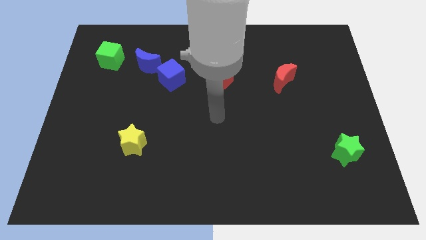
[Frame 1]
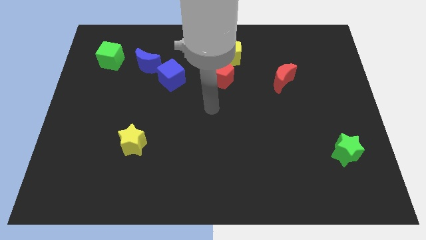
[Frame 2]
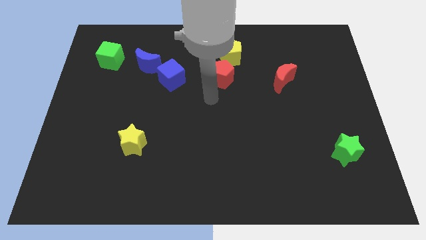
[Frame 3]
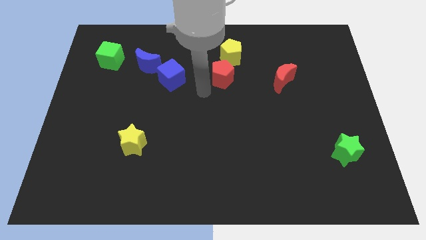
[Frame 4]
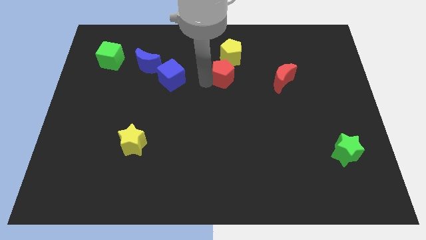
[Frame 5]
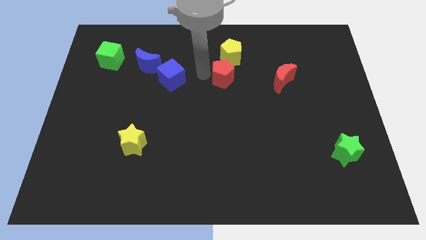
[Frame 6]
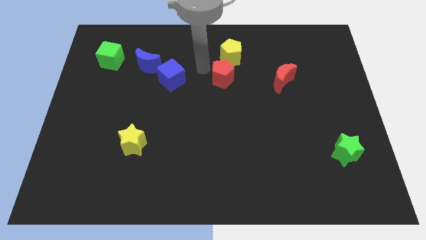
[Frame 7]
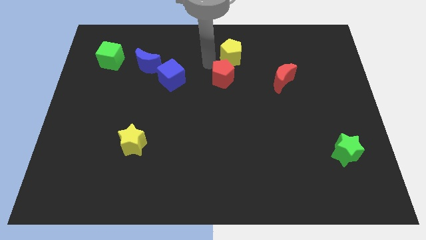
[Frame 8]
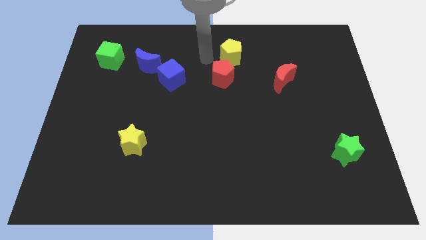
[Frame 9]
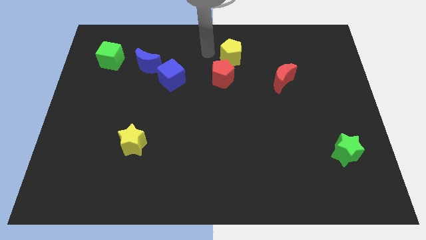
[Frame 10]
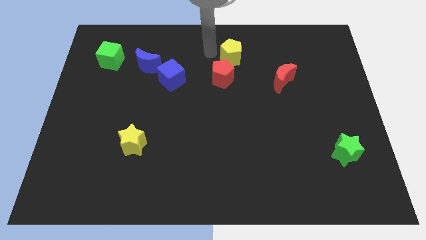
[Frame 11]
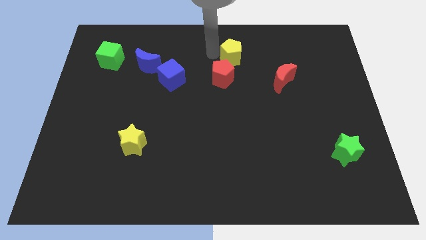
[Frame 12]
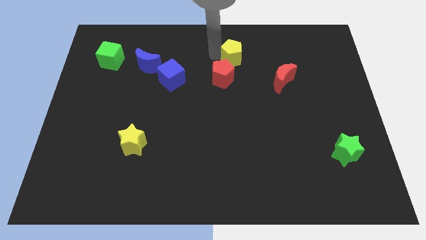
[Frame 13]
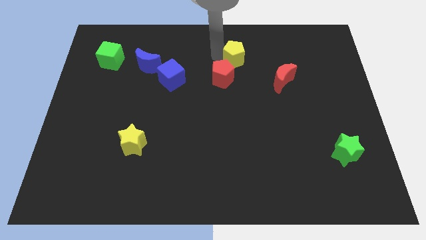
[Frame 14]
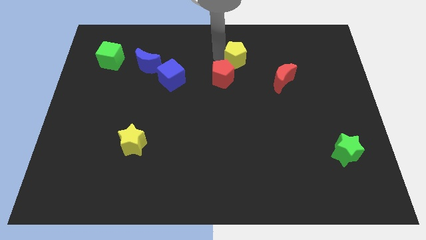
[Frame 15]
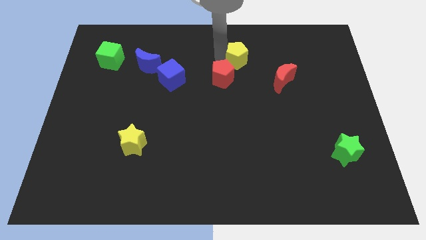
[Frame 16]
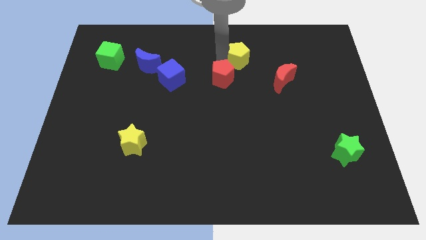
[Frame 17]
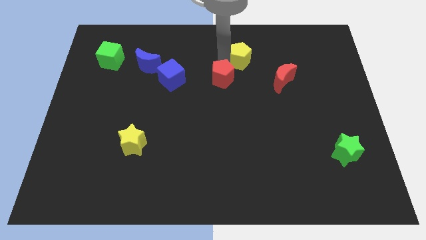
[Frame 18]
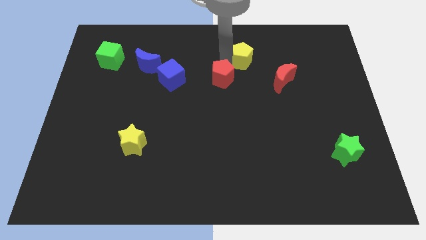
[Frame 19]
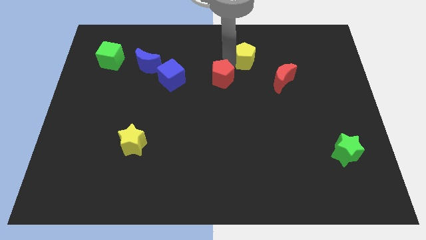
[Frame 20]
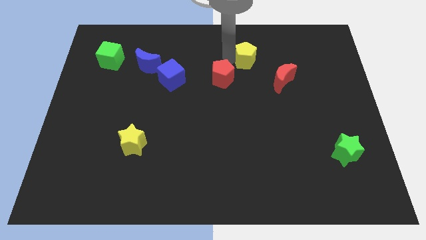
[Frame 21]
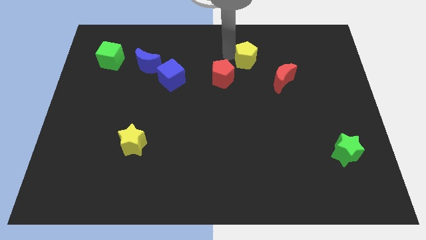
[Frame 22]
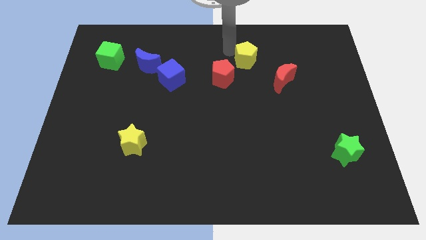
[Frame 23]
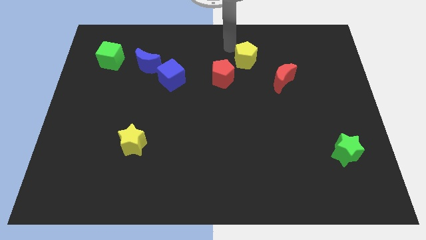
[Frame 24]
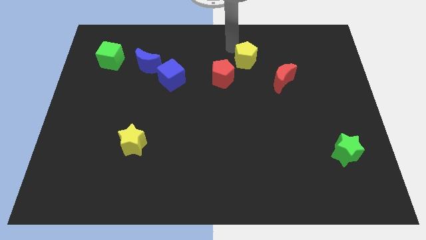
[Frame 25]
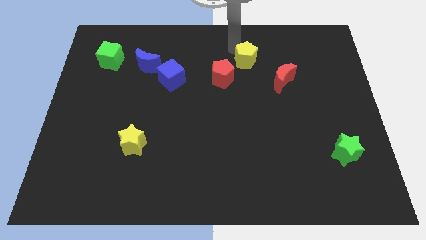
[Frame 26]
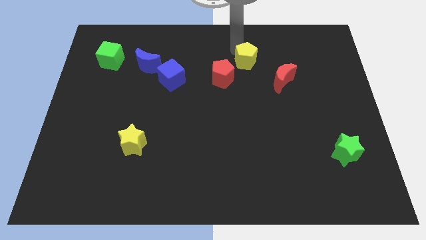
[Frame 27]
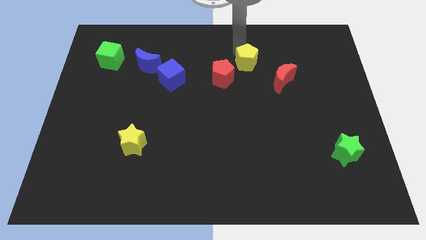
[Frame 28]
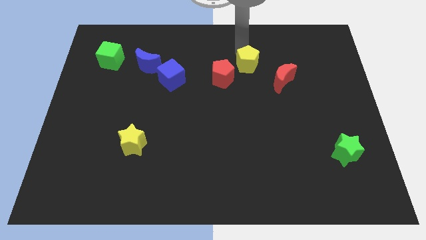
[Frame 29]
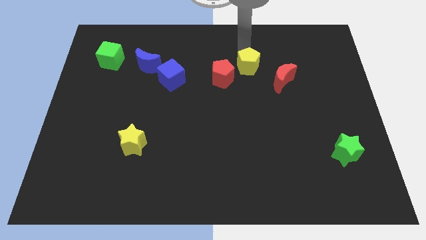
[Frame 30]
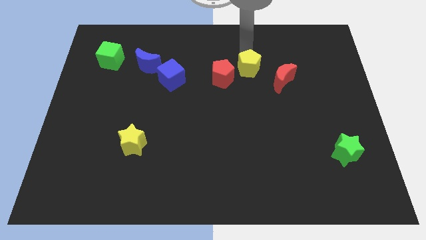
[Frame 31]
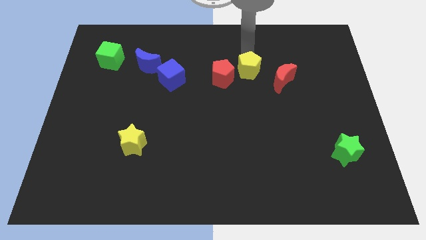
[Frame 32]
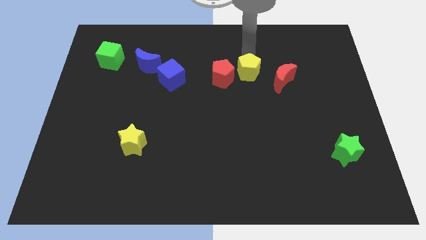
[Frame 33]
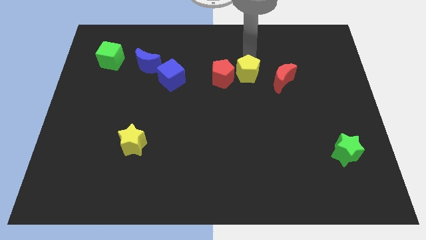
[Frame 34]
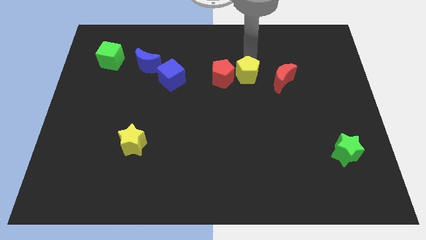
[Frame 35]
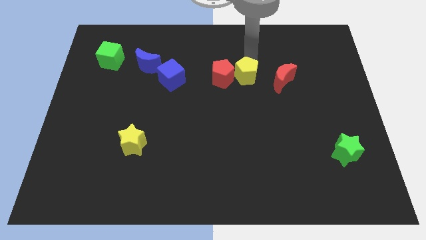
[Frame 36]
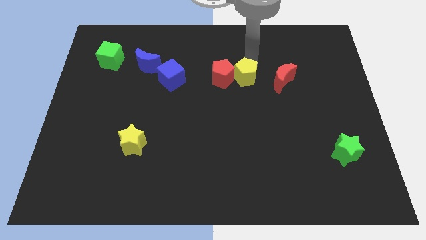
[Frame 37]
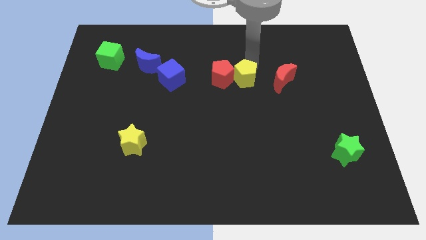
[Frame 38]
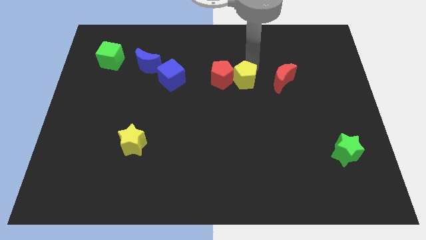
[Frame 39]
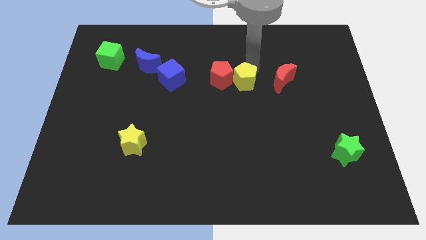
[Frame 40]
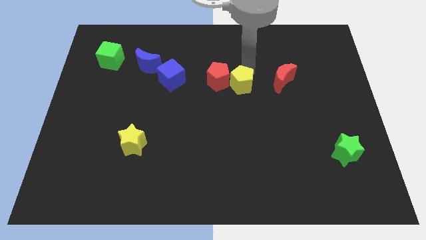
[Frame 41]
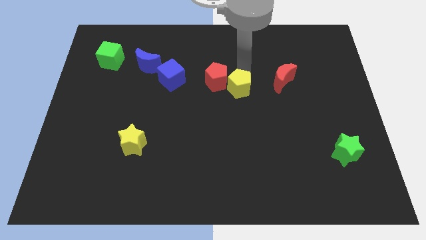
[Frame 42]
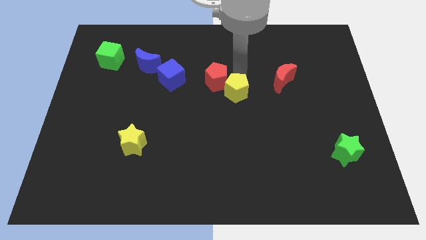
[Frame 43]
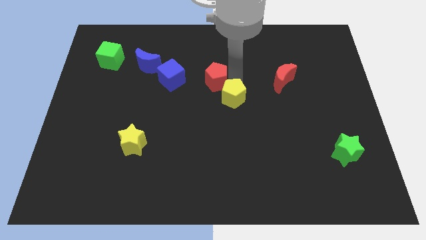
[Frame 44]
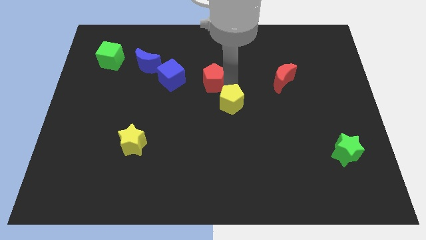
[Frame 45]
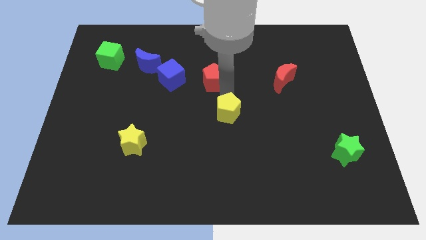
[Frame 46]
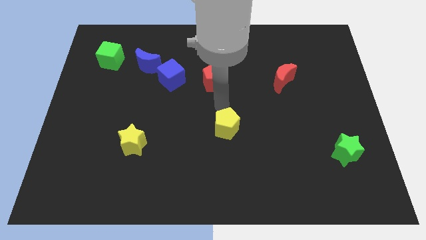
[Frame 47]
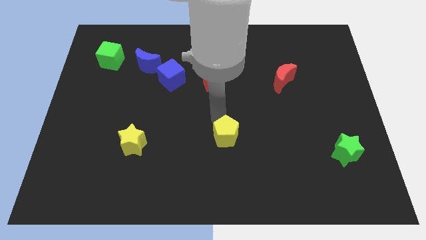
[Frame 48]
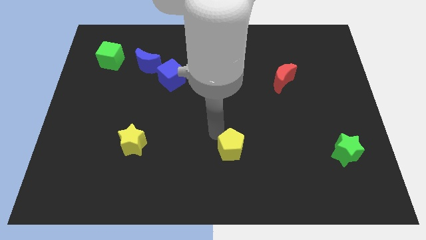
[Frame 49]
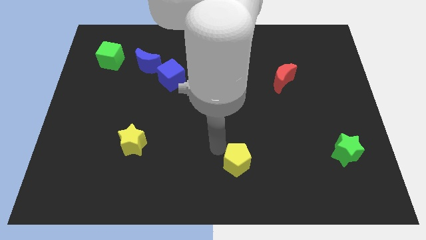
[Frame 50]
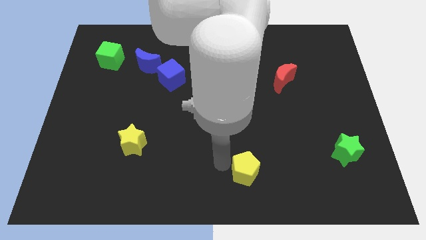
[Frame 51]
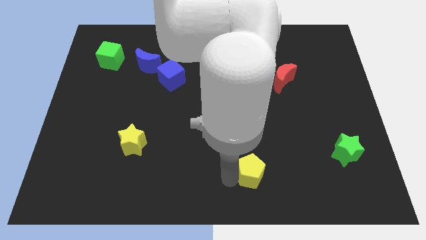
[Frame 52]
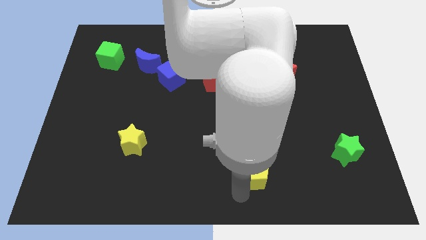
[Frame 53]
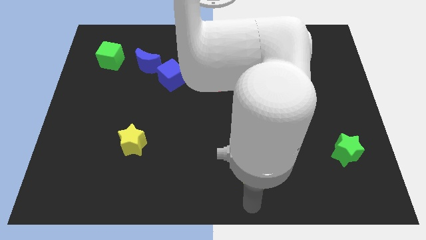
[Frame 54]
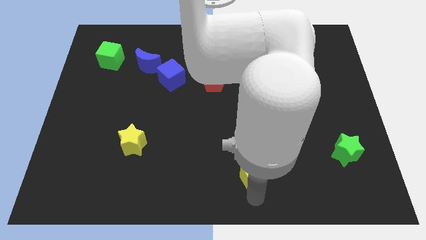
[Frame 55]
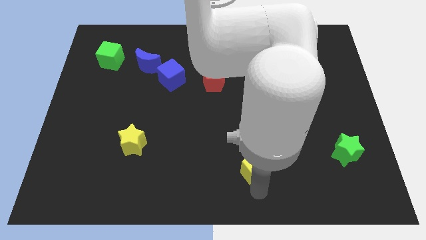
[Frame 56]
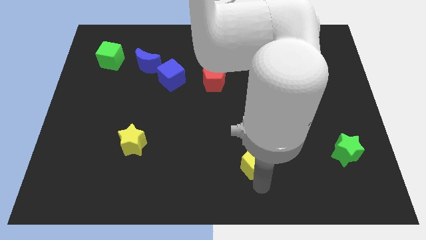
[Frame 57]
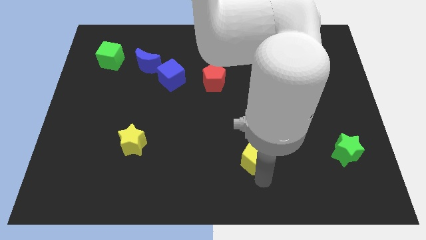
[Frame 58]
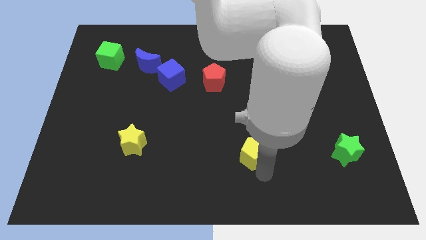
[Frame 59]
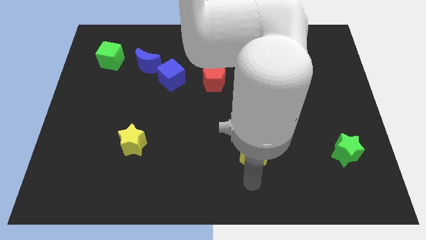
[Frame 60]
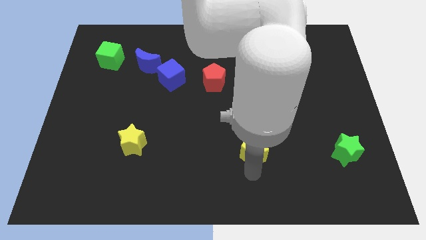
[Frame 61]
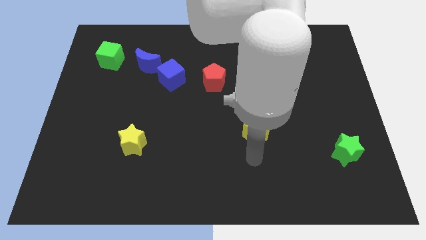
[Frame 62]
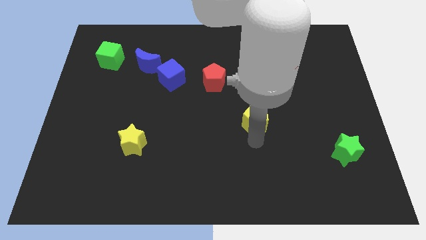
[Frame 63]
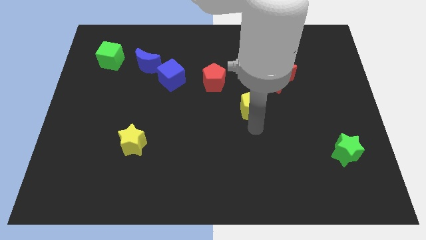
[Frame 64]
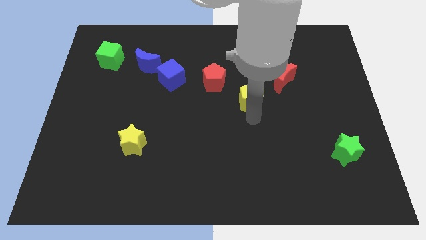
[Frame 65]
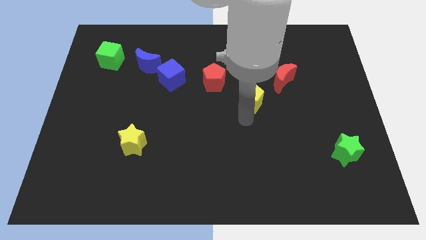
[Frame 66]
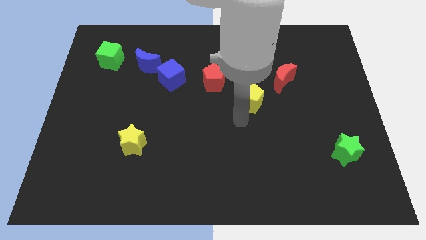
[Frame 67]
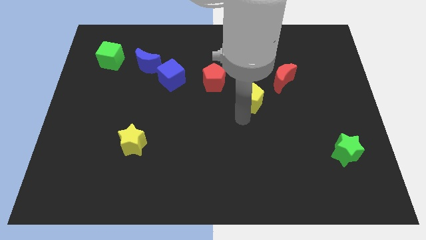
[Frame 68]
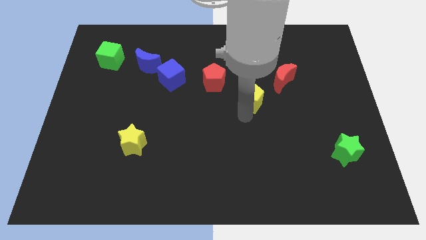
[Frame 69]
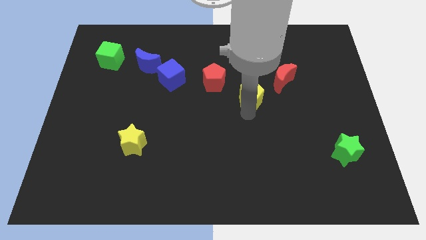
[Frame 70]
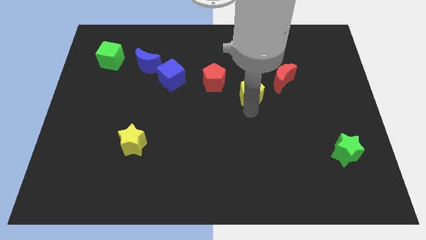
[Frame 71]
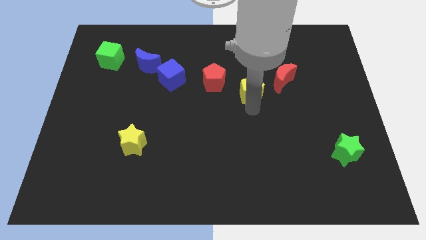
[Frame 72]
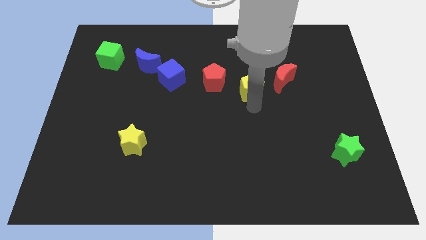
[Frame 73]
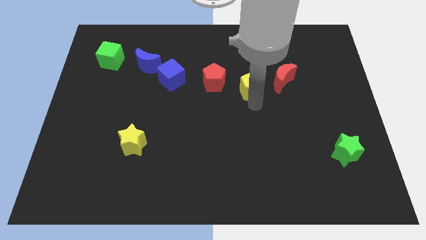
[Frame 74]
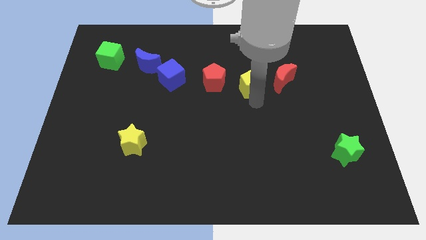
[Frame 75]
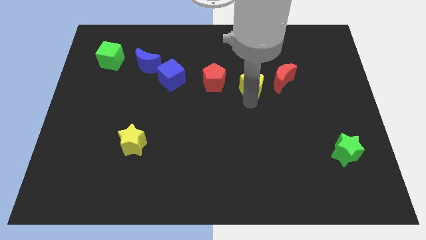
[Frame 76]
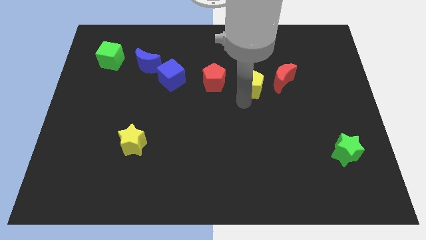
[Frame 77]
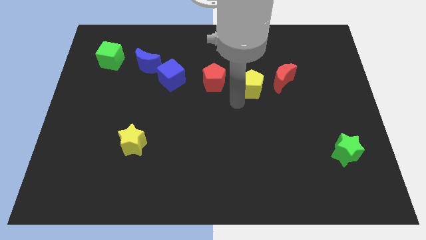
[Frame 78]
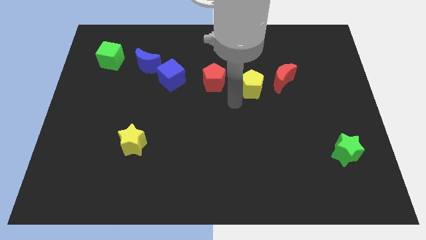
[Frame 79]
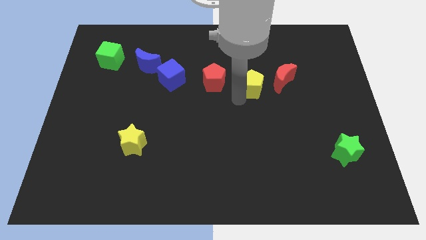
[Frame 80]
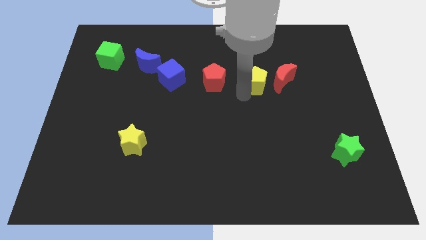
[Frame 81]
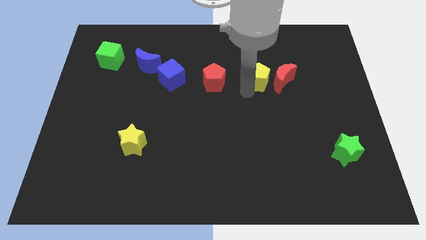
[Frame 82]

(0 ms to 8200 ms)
move the yellow pentagon close to the red moon
